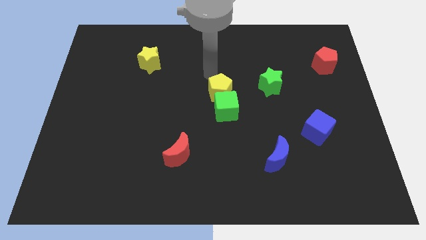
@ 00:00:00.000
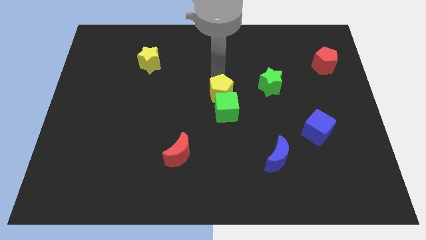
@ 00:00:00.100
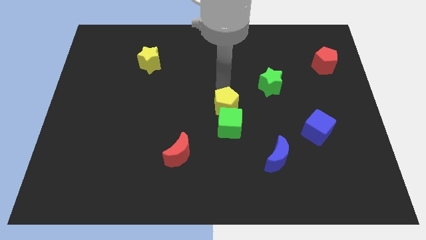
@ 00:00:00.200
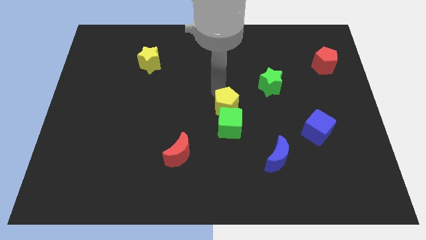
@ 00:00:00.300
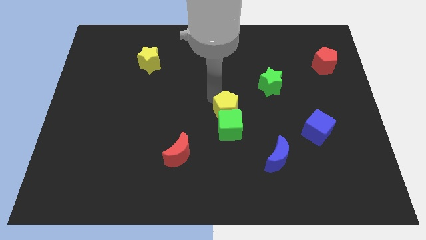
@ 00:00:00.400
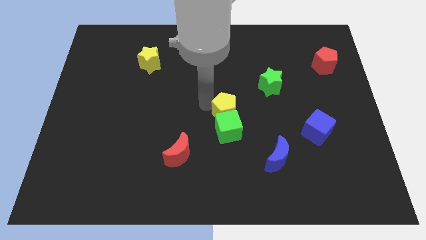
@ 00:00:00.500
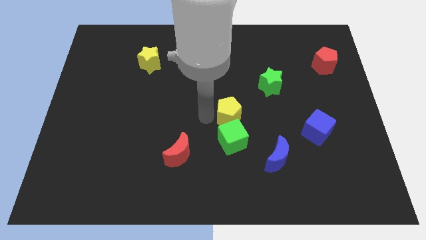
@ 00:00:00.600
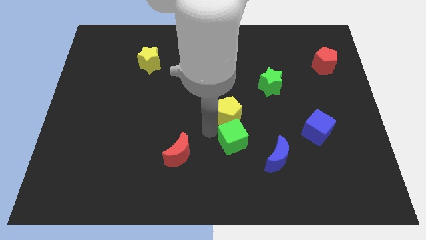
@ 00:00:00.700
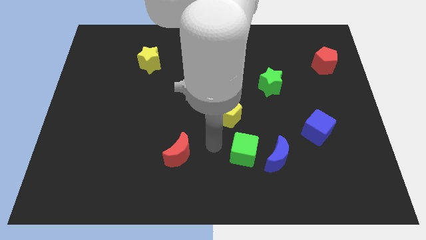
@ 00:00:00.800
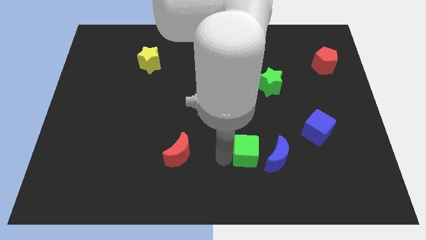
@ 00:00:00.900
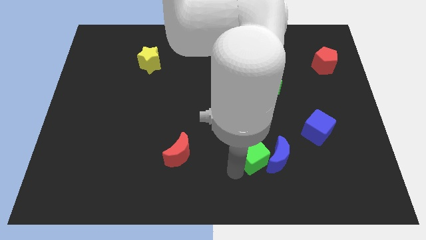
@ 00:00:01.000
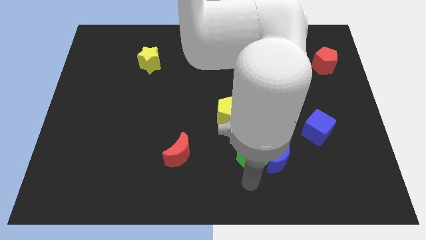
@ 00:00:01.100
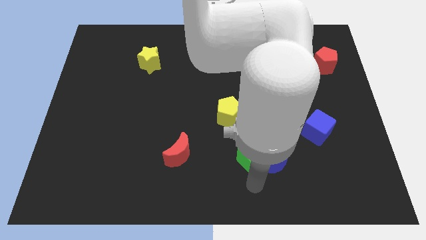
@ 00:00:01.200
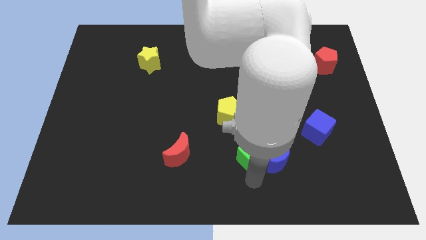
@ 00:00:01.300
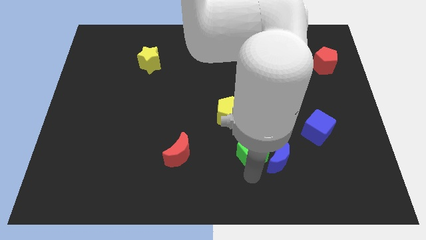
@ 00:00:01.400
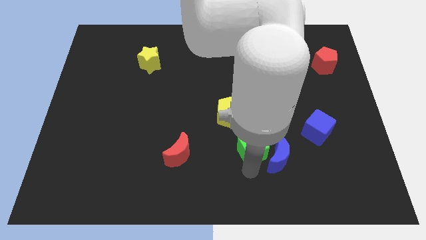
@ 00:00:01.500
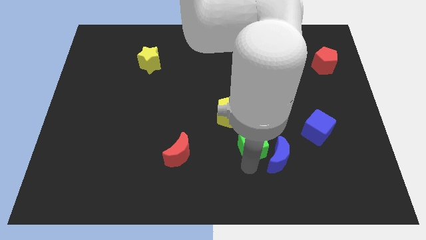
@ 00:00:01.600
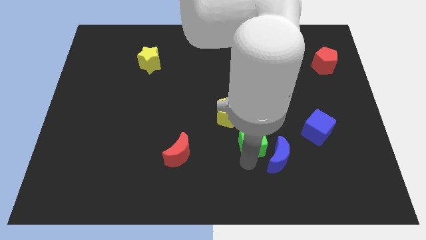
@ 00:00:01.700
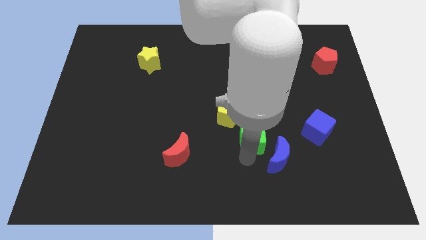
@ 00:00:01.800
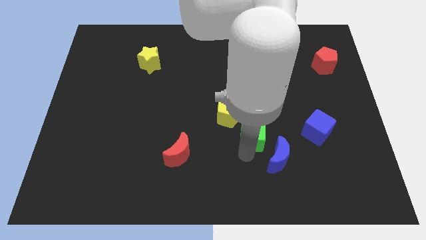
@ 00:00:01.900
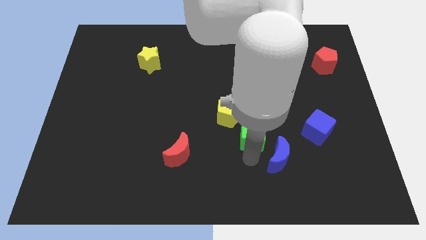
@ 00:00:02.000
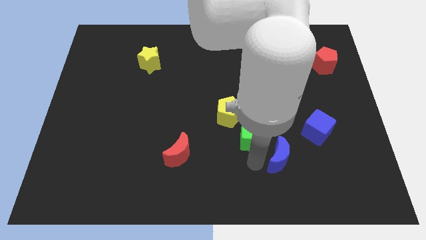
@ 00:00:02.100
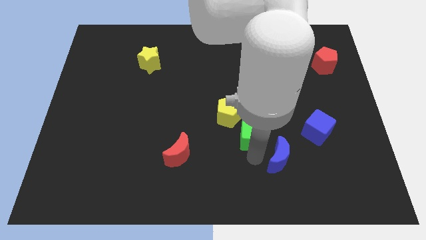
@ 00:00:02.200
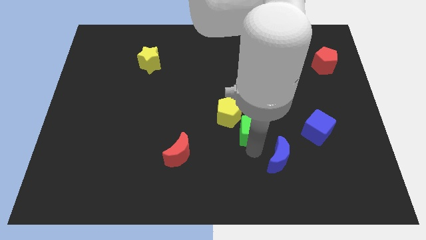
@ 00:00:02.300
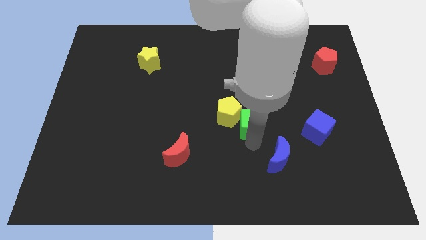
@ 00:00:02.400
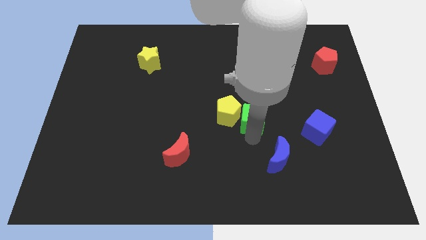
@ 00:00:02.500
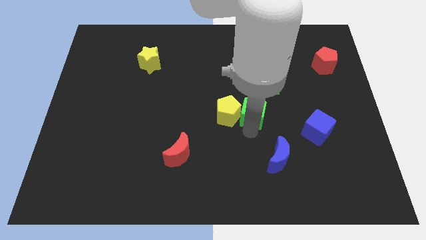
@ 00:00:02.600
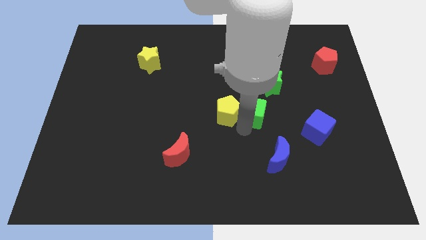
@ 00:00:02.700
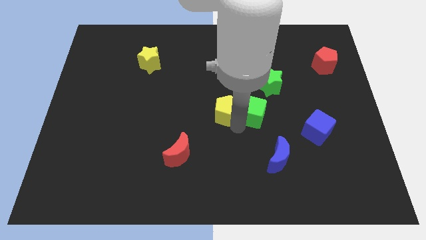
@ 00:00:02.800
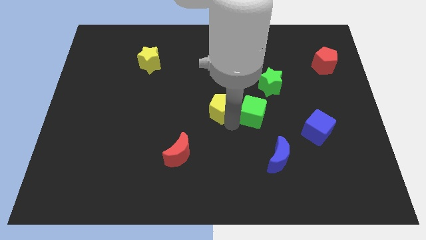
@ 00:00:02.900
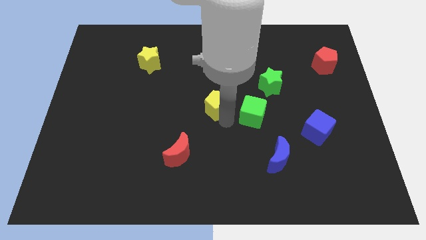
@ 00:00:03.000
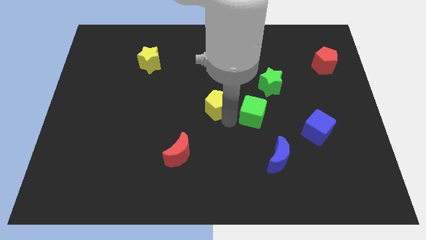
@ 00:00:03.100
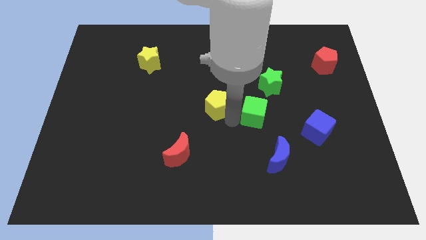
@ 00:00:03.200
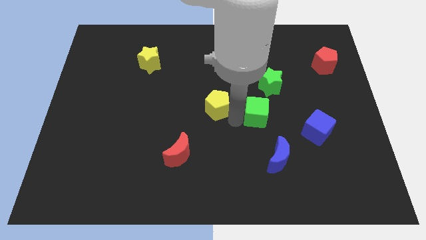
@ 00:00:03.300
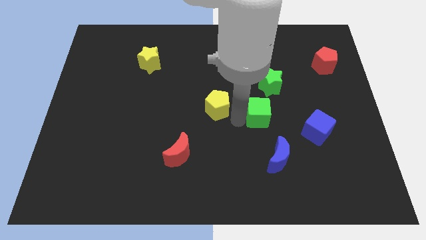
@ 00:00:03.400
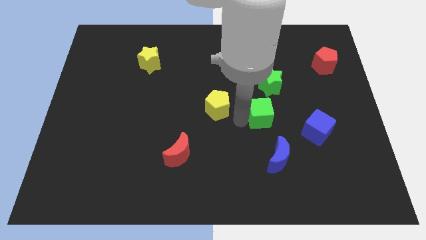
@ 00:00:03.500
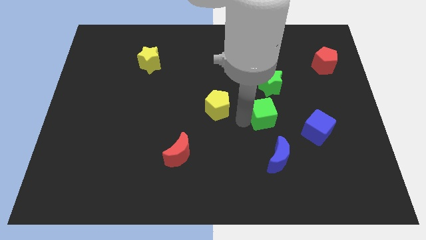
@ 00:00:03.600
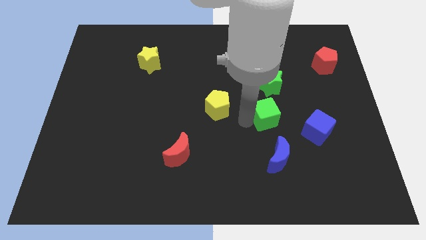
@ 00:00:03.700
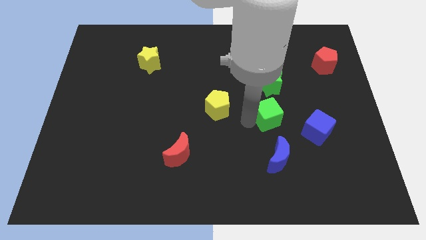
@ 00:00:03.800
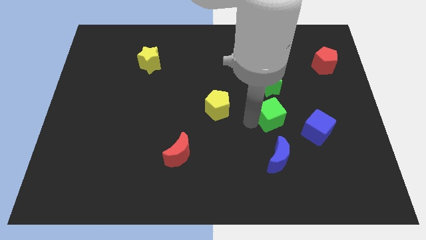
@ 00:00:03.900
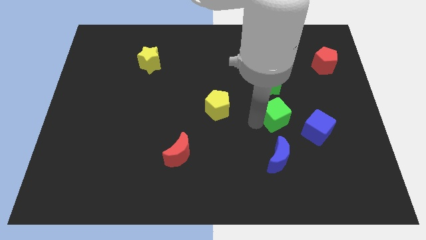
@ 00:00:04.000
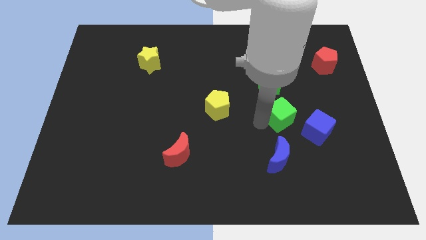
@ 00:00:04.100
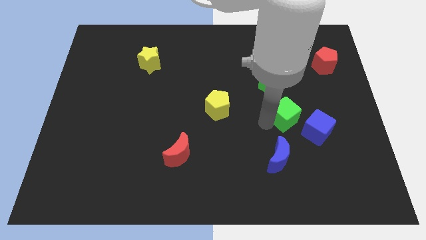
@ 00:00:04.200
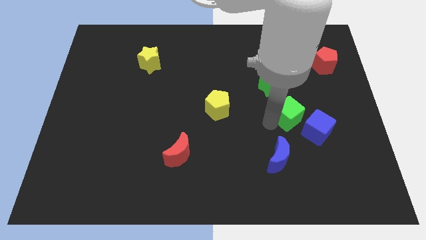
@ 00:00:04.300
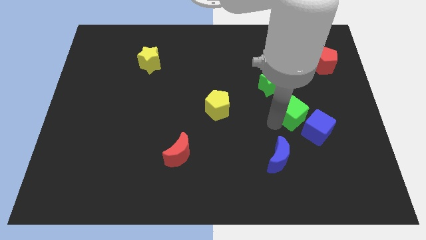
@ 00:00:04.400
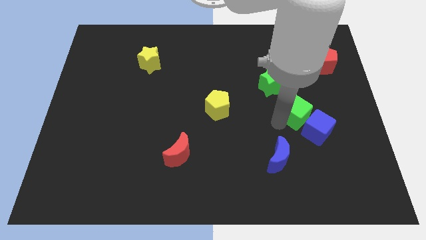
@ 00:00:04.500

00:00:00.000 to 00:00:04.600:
push the green cube to the top side of the blue cube

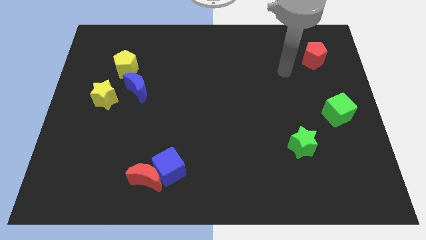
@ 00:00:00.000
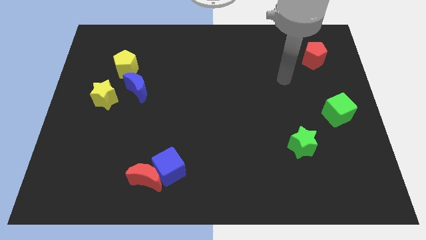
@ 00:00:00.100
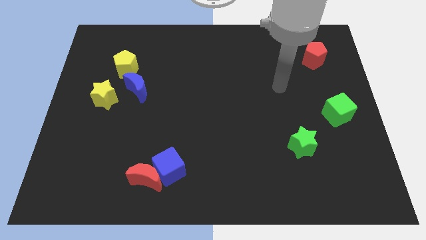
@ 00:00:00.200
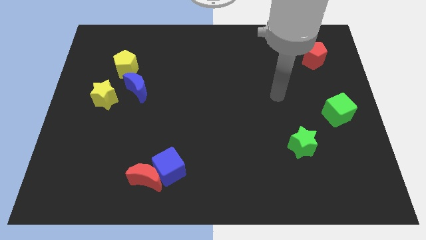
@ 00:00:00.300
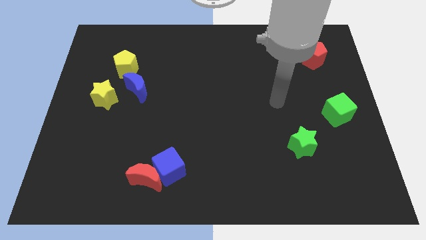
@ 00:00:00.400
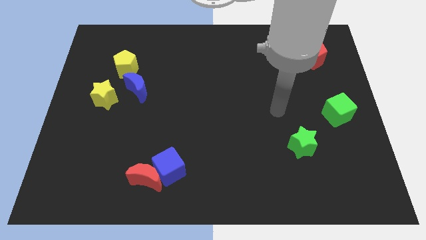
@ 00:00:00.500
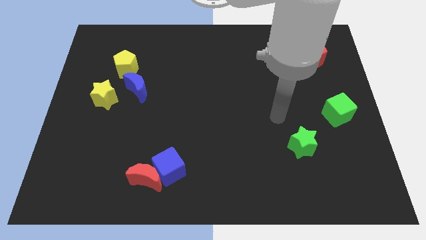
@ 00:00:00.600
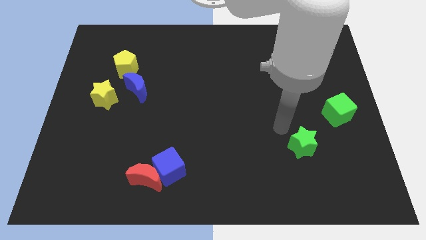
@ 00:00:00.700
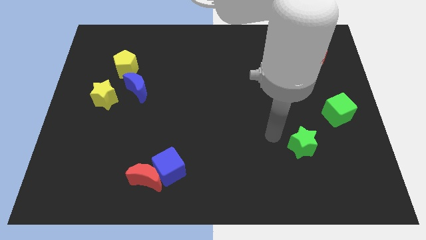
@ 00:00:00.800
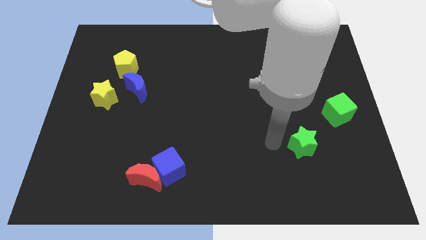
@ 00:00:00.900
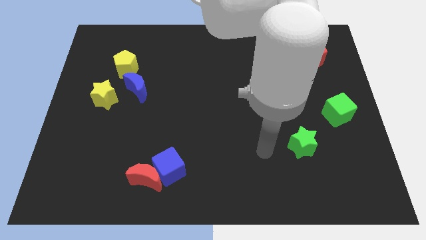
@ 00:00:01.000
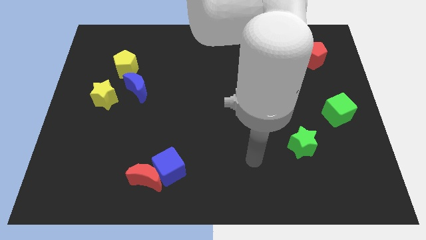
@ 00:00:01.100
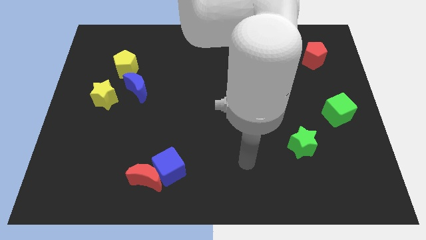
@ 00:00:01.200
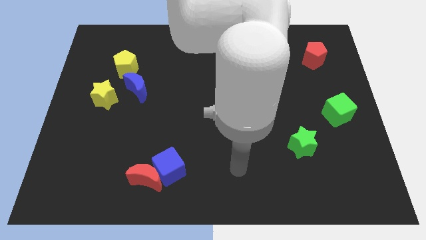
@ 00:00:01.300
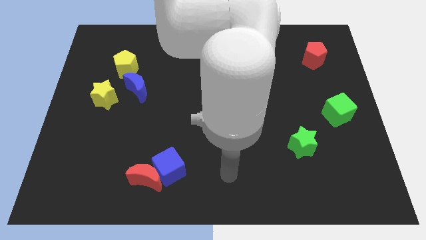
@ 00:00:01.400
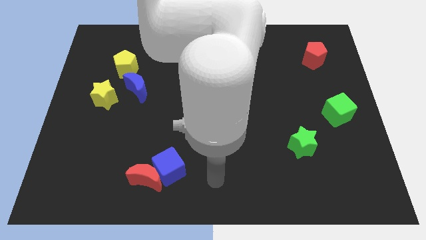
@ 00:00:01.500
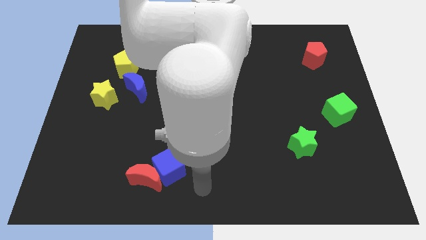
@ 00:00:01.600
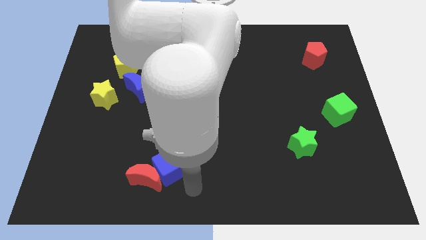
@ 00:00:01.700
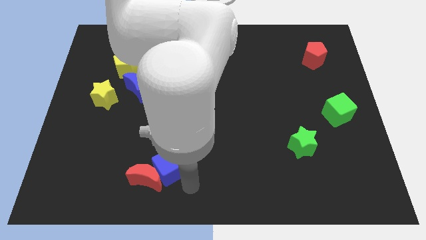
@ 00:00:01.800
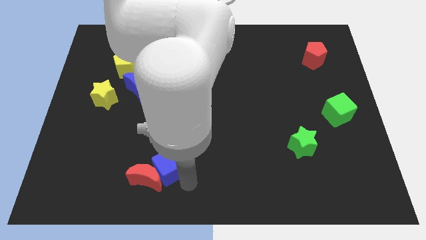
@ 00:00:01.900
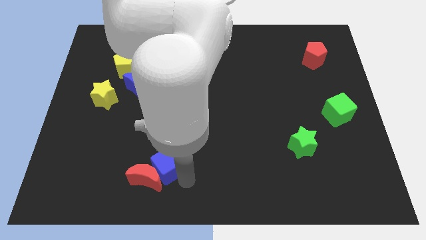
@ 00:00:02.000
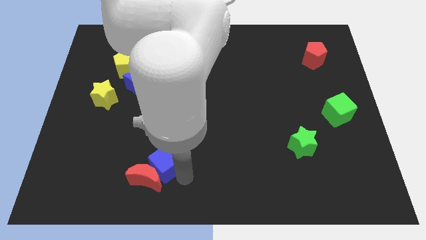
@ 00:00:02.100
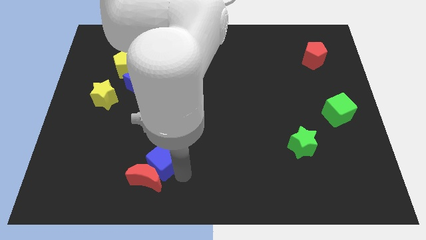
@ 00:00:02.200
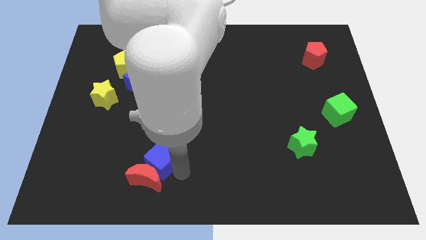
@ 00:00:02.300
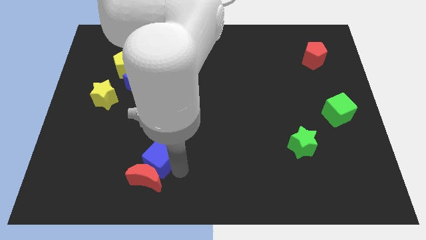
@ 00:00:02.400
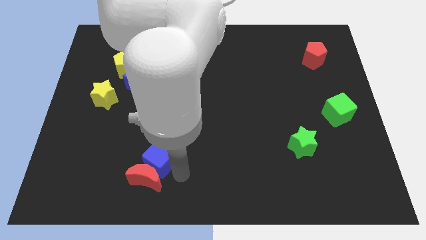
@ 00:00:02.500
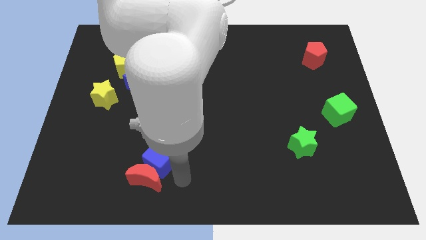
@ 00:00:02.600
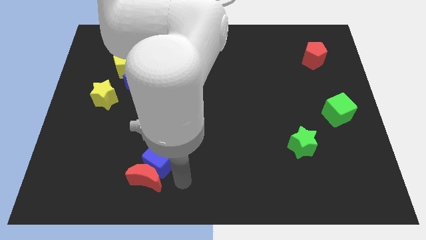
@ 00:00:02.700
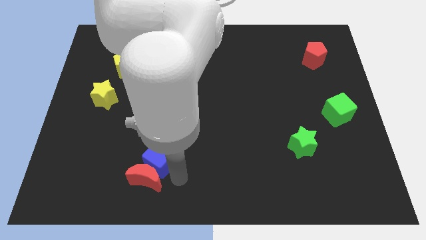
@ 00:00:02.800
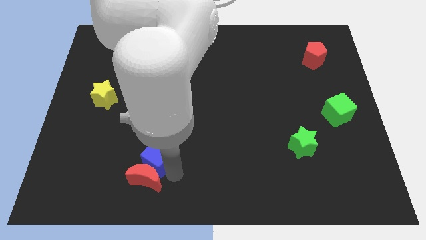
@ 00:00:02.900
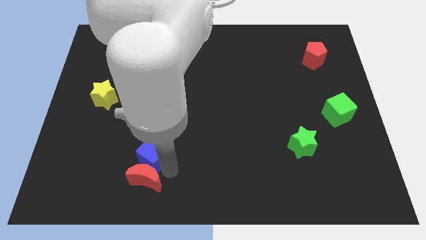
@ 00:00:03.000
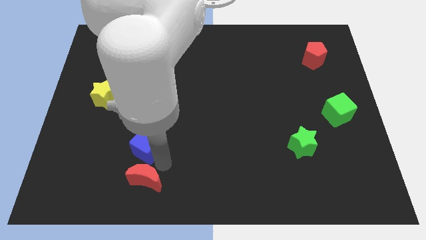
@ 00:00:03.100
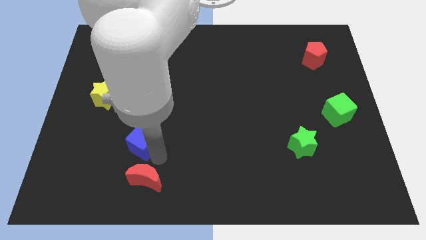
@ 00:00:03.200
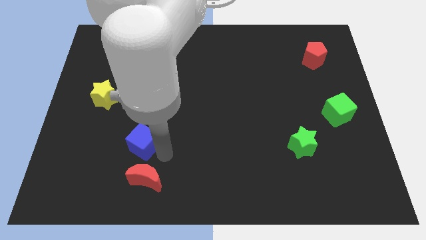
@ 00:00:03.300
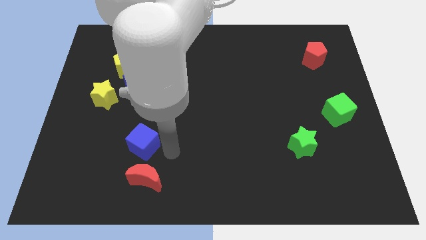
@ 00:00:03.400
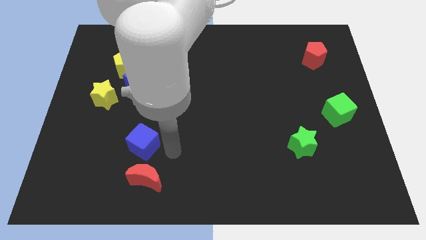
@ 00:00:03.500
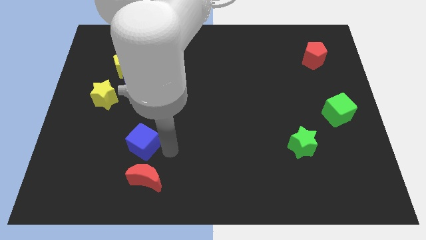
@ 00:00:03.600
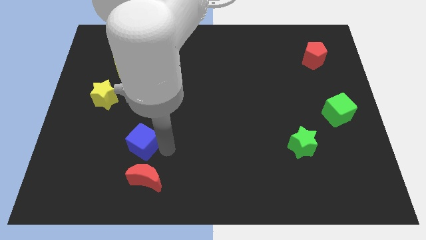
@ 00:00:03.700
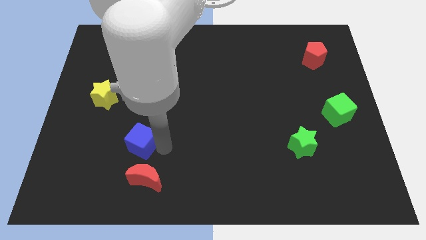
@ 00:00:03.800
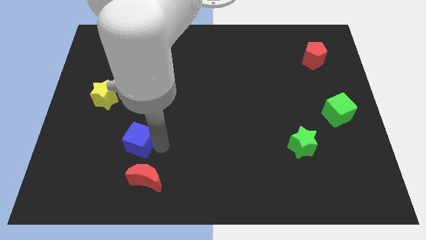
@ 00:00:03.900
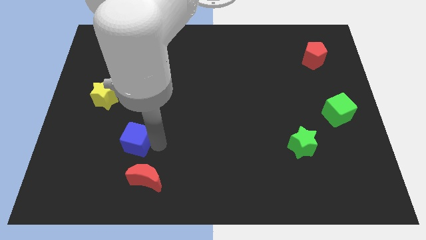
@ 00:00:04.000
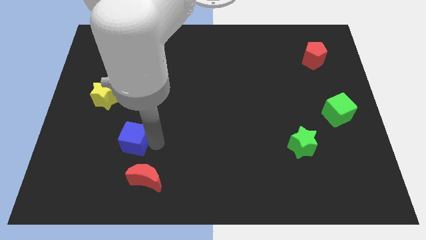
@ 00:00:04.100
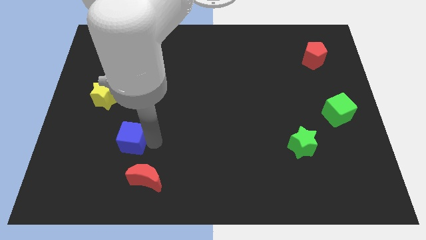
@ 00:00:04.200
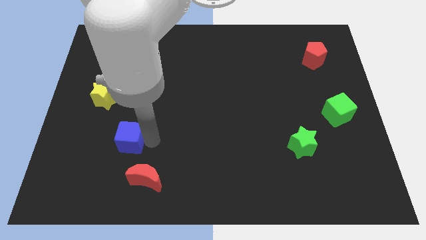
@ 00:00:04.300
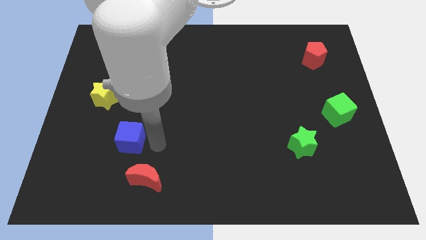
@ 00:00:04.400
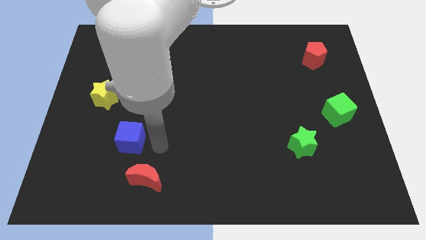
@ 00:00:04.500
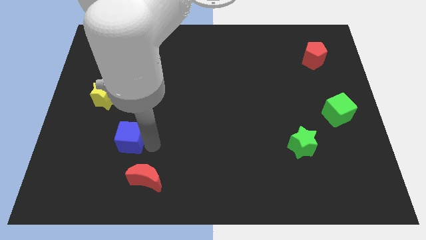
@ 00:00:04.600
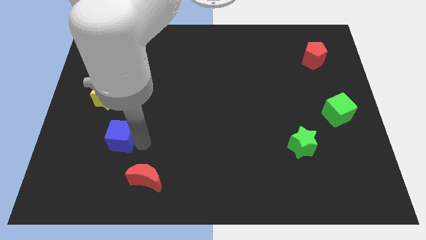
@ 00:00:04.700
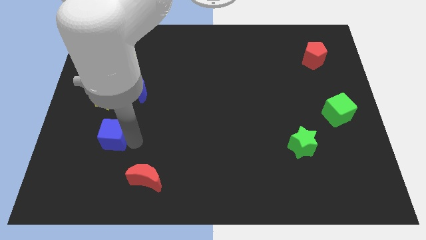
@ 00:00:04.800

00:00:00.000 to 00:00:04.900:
slide the blue cube to the bottom of the yellow star
